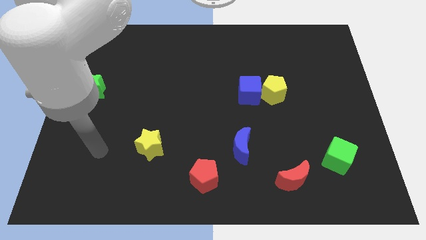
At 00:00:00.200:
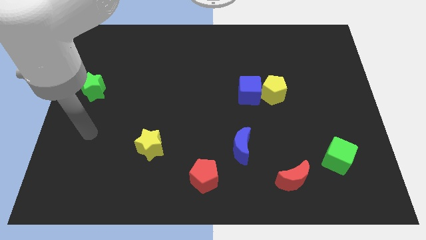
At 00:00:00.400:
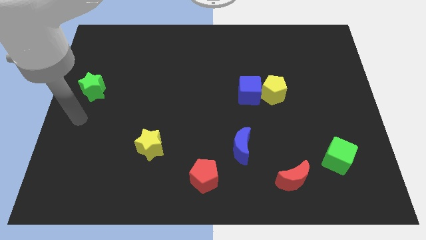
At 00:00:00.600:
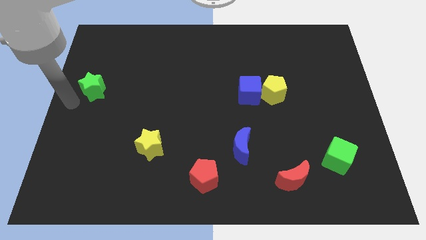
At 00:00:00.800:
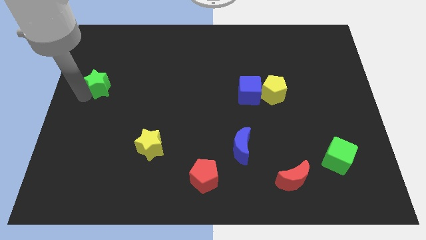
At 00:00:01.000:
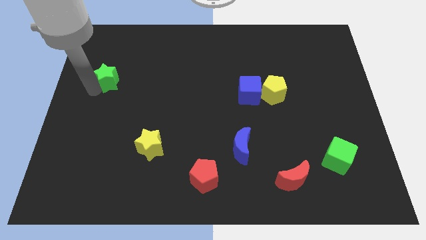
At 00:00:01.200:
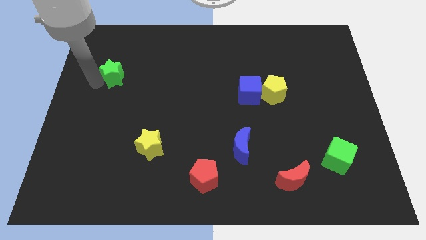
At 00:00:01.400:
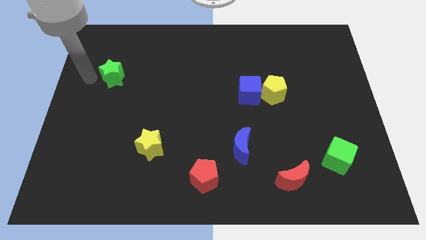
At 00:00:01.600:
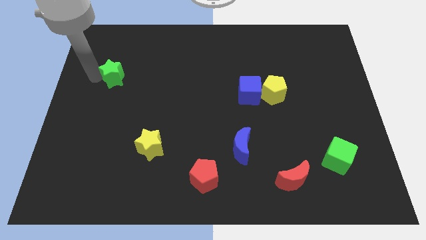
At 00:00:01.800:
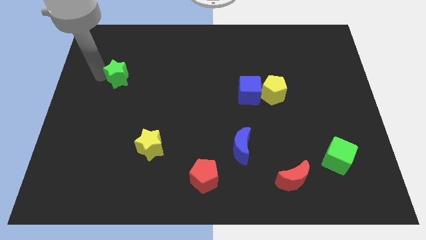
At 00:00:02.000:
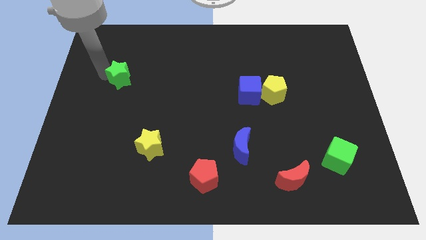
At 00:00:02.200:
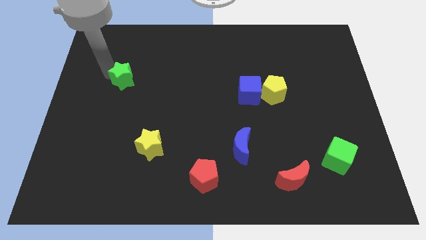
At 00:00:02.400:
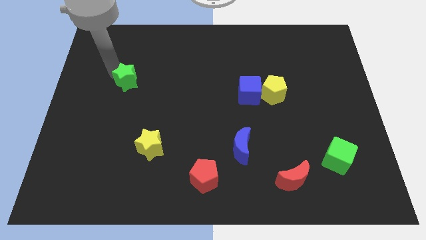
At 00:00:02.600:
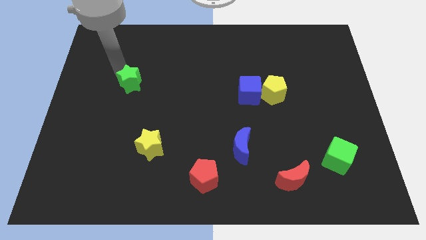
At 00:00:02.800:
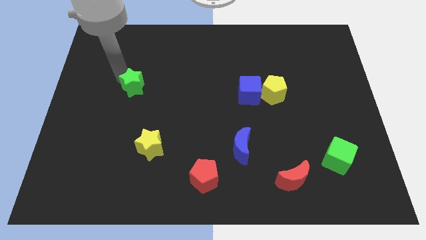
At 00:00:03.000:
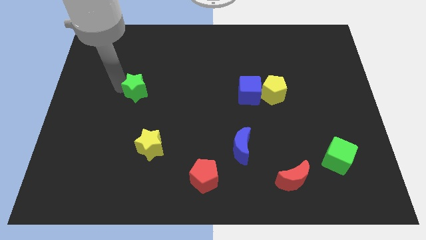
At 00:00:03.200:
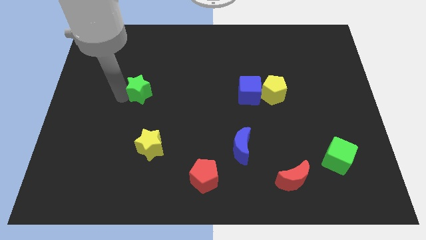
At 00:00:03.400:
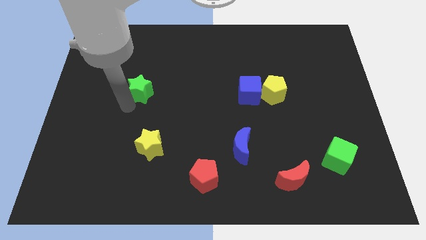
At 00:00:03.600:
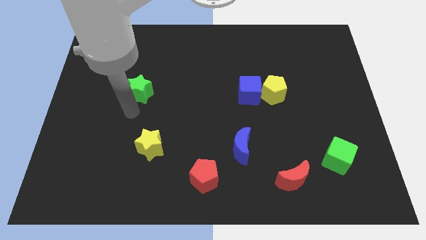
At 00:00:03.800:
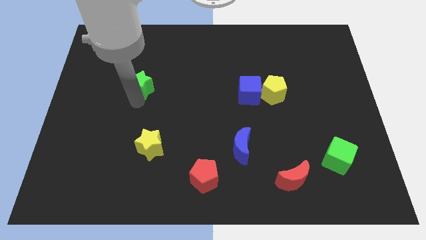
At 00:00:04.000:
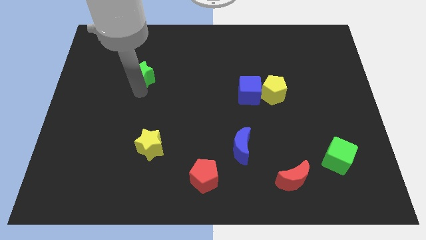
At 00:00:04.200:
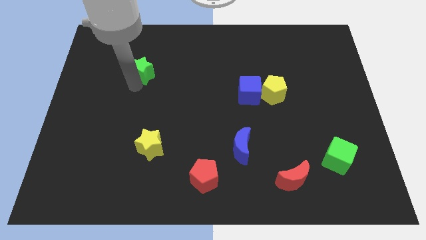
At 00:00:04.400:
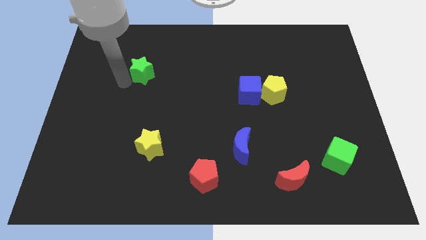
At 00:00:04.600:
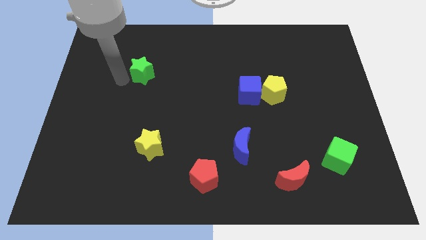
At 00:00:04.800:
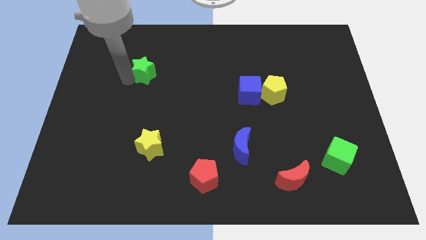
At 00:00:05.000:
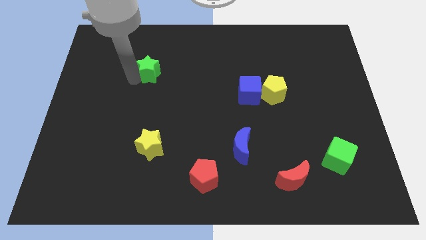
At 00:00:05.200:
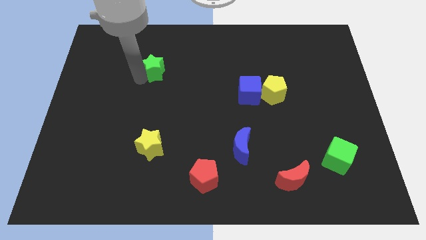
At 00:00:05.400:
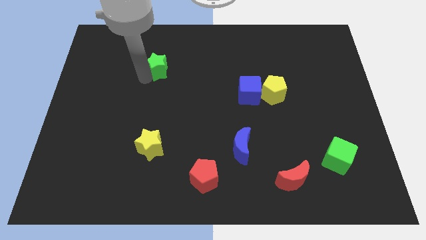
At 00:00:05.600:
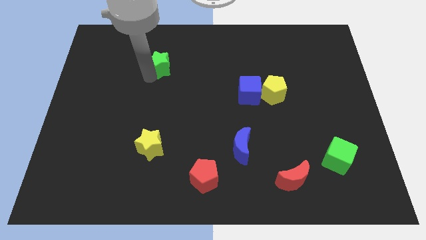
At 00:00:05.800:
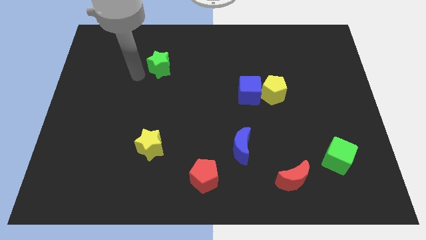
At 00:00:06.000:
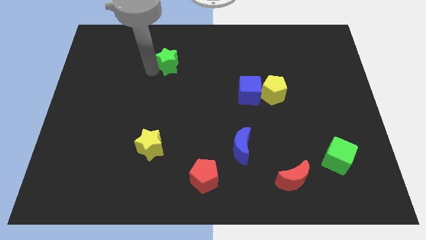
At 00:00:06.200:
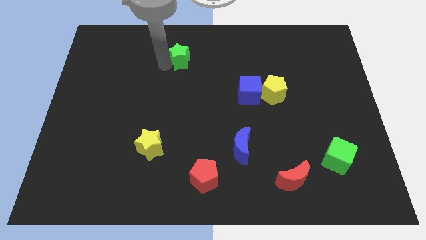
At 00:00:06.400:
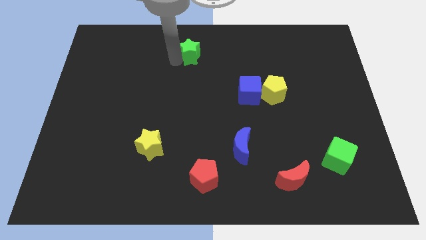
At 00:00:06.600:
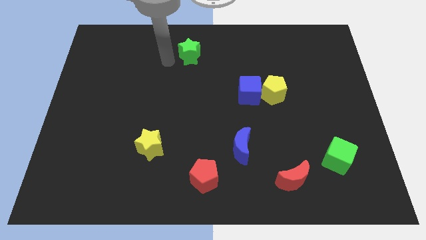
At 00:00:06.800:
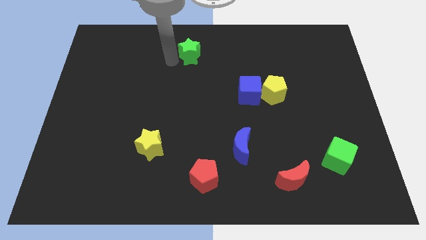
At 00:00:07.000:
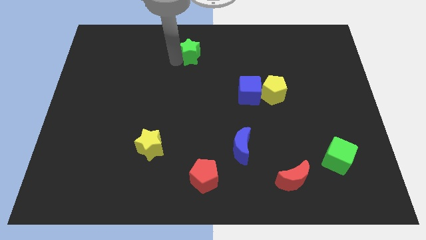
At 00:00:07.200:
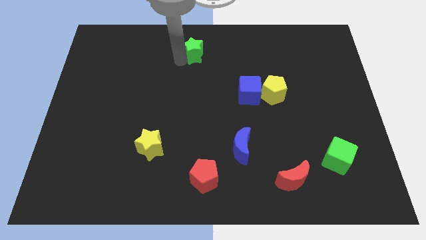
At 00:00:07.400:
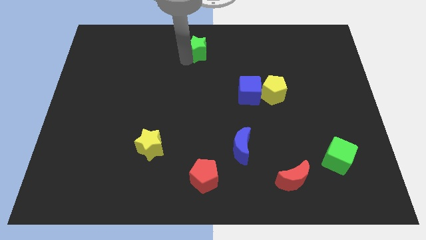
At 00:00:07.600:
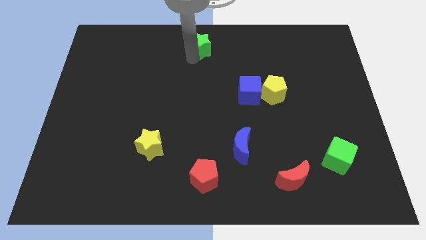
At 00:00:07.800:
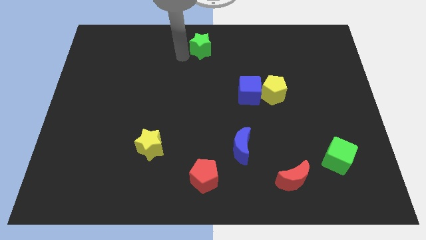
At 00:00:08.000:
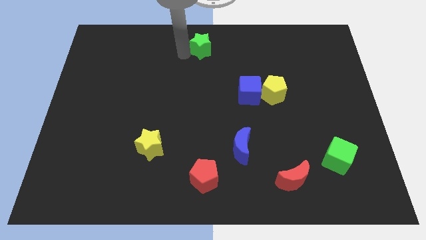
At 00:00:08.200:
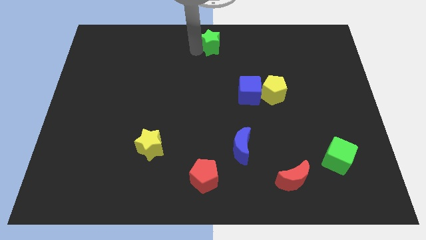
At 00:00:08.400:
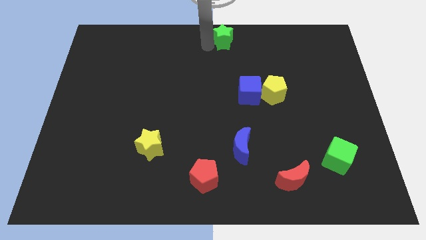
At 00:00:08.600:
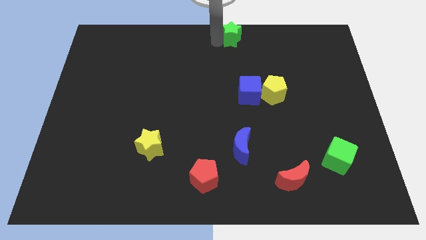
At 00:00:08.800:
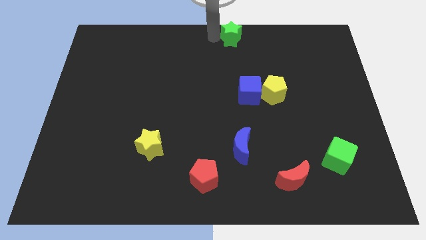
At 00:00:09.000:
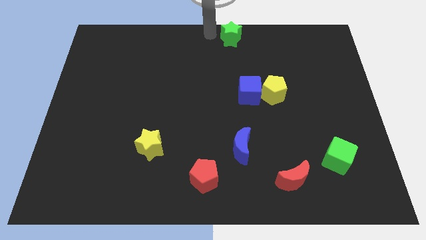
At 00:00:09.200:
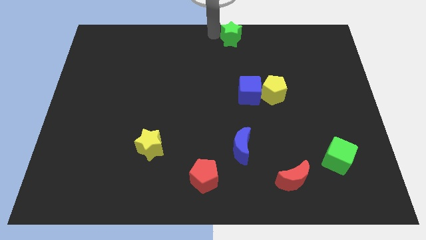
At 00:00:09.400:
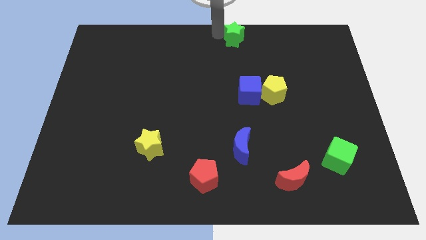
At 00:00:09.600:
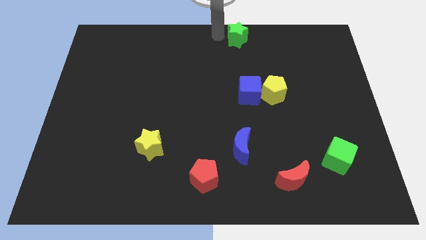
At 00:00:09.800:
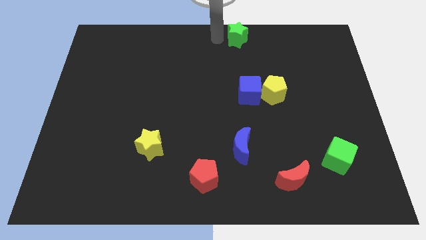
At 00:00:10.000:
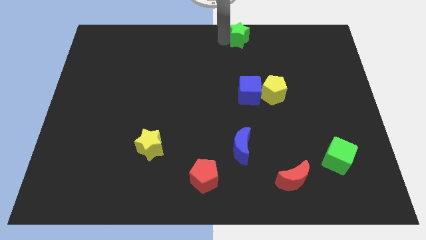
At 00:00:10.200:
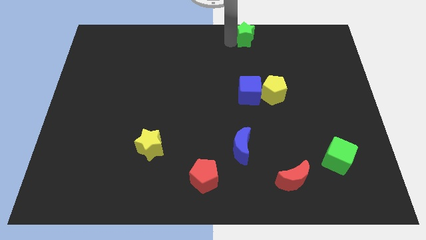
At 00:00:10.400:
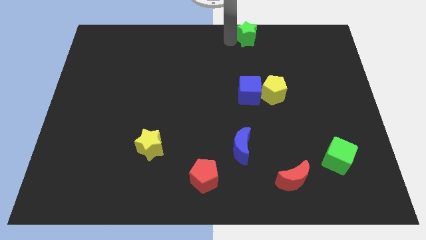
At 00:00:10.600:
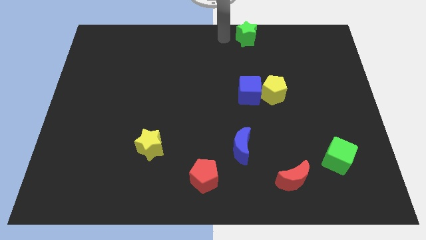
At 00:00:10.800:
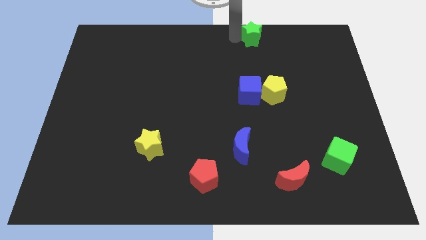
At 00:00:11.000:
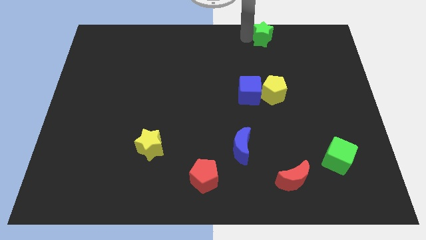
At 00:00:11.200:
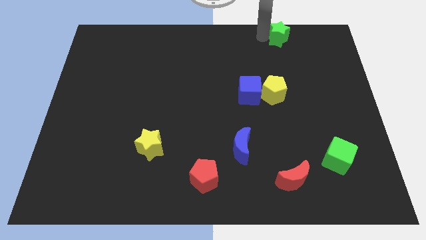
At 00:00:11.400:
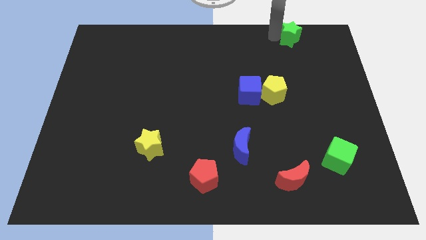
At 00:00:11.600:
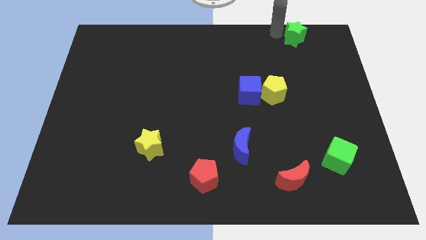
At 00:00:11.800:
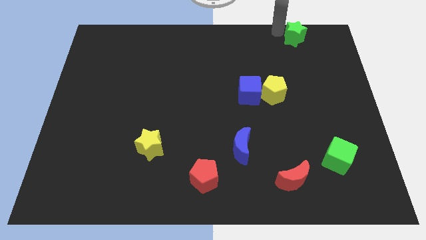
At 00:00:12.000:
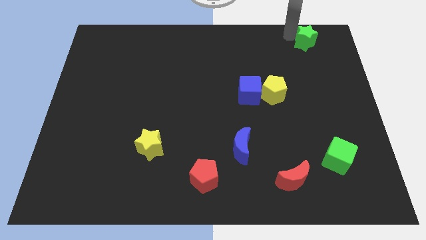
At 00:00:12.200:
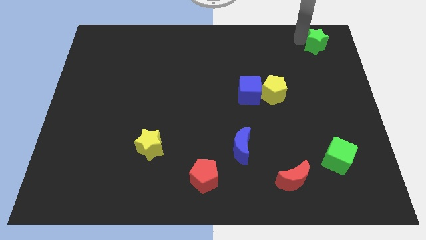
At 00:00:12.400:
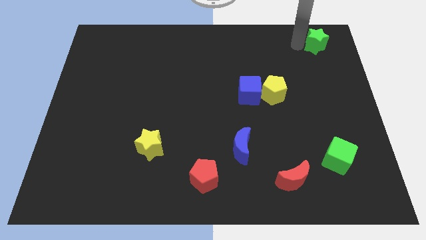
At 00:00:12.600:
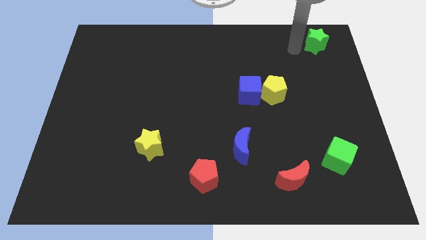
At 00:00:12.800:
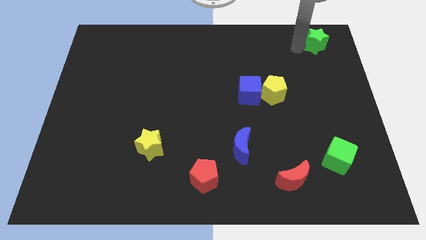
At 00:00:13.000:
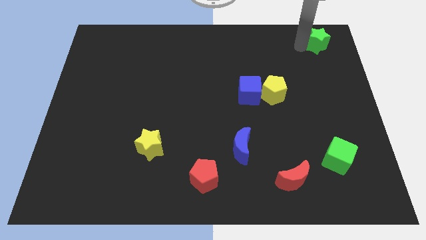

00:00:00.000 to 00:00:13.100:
push the green star to the top right of the board
